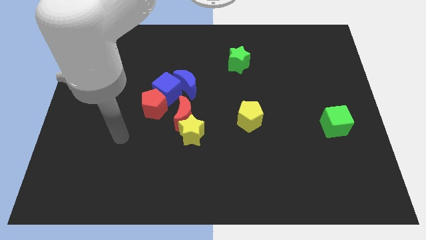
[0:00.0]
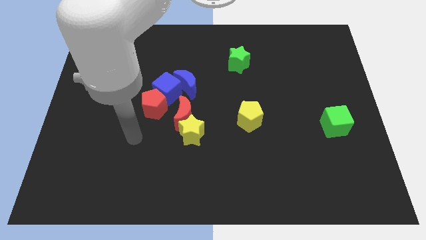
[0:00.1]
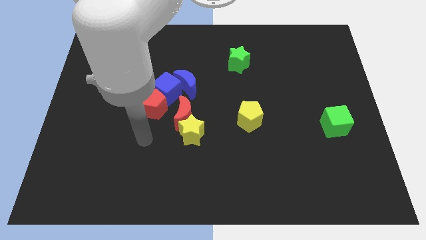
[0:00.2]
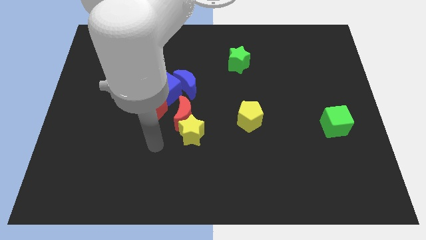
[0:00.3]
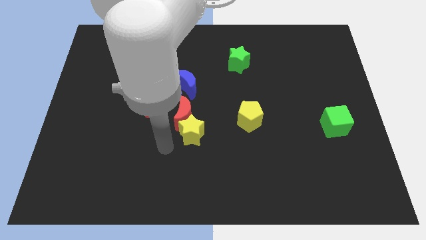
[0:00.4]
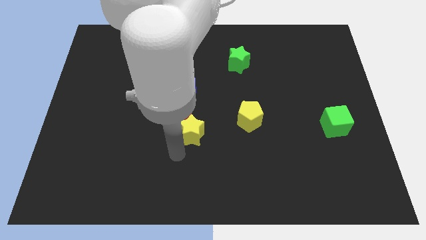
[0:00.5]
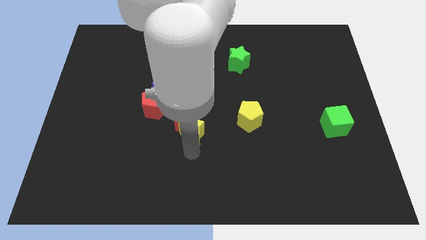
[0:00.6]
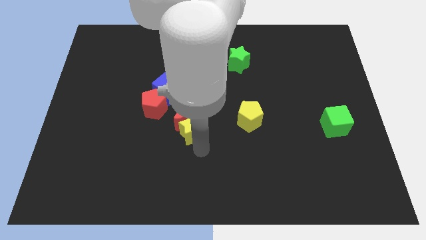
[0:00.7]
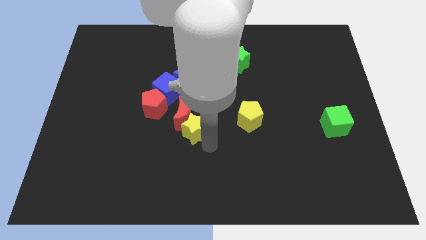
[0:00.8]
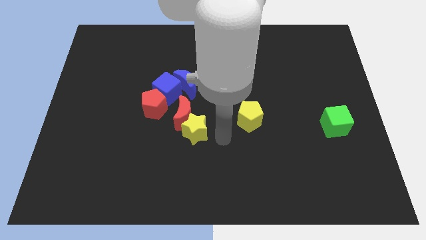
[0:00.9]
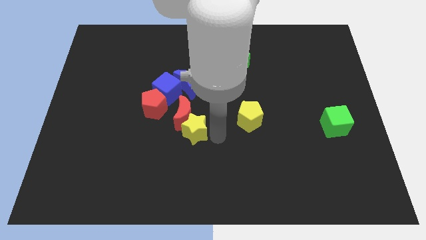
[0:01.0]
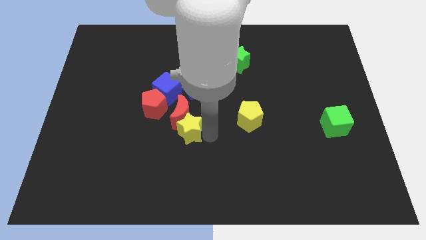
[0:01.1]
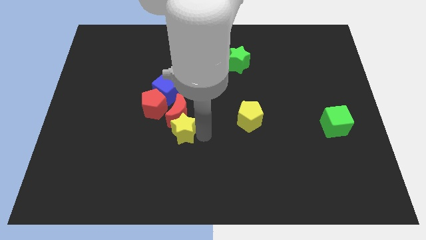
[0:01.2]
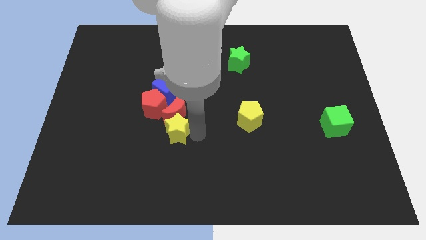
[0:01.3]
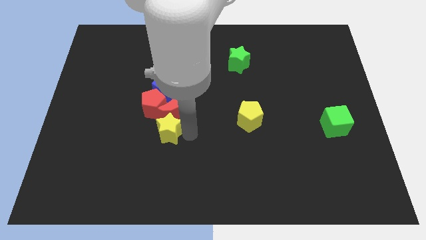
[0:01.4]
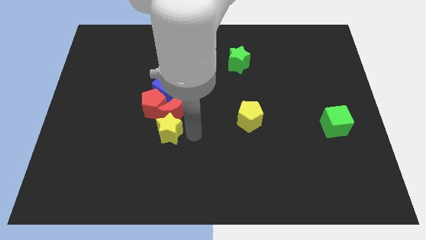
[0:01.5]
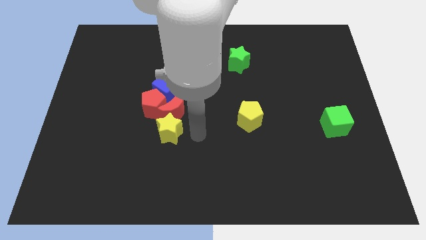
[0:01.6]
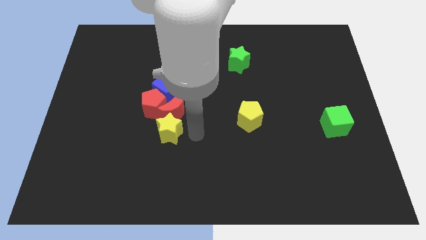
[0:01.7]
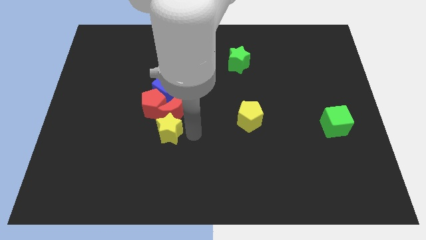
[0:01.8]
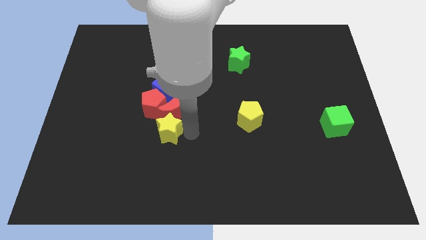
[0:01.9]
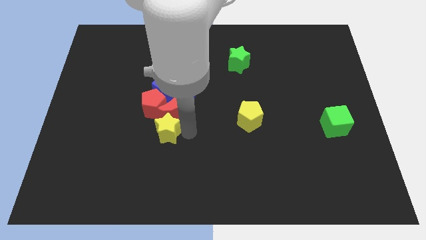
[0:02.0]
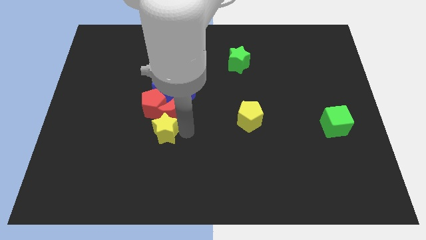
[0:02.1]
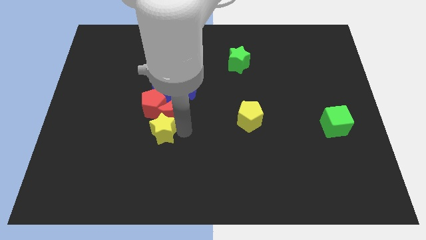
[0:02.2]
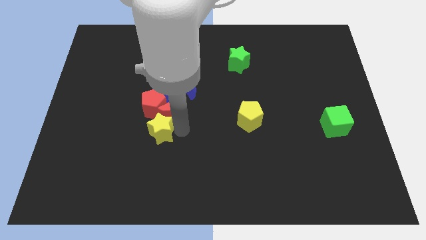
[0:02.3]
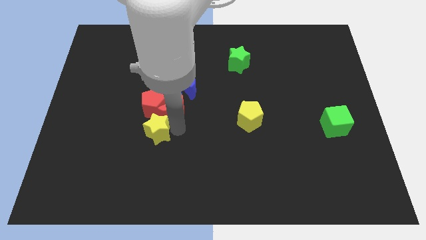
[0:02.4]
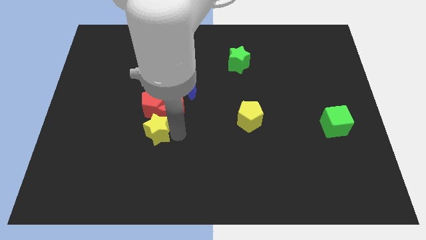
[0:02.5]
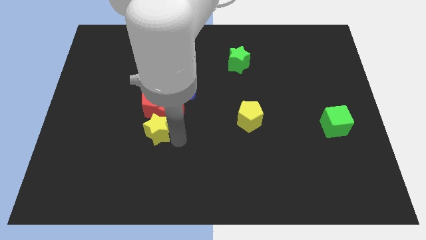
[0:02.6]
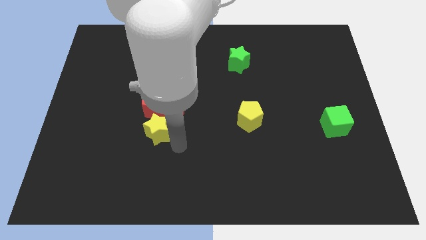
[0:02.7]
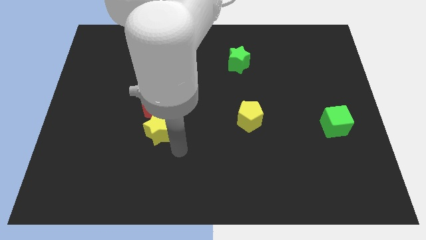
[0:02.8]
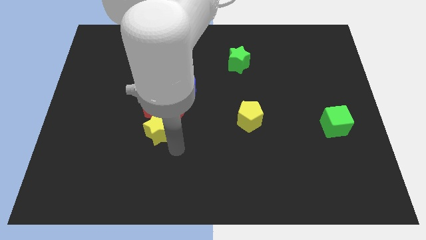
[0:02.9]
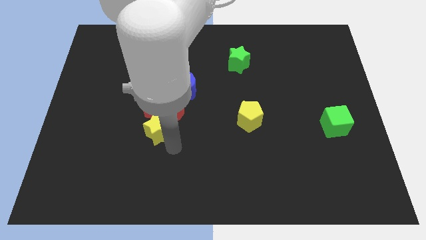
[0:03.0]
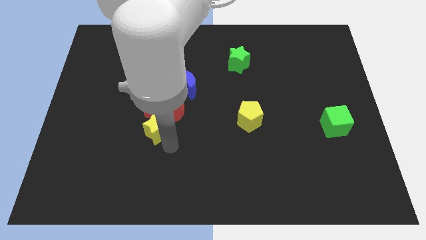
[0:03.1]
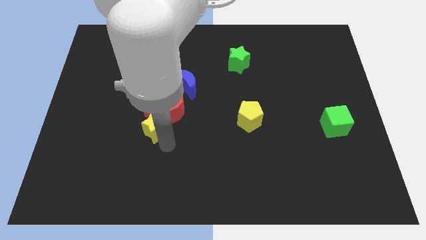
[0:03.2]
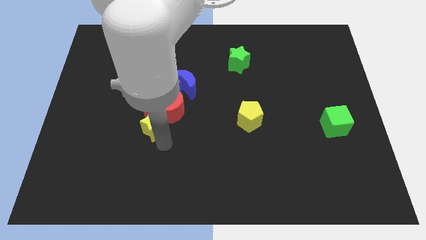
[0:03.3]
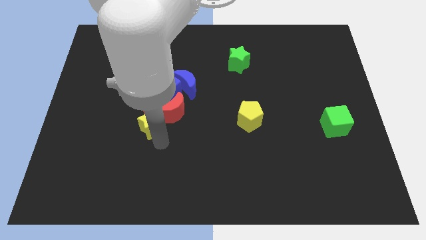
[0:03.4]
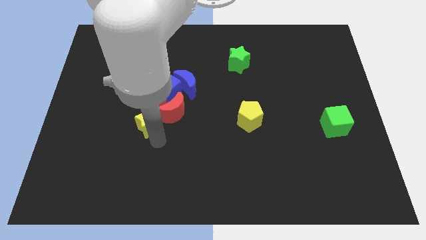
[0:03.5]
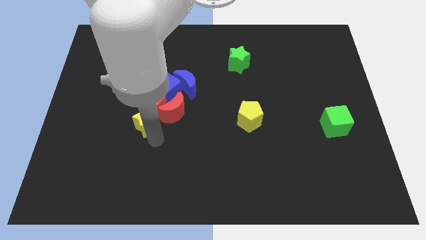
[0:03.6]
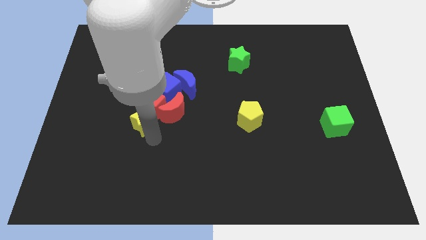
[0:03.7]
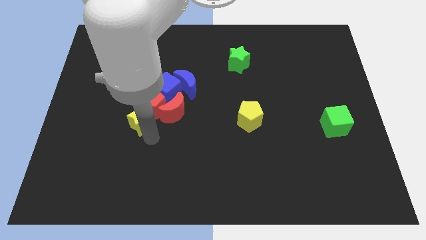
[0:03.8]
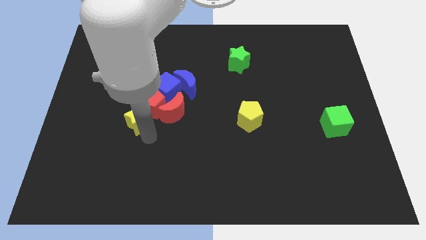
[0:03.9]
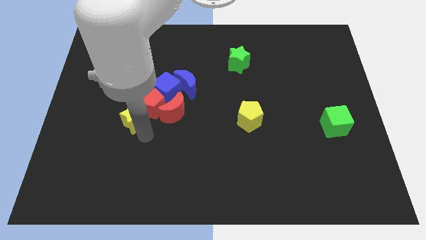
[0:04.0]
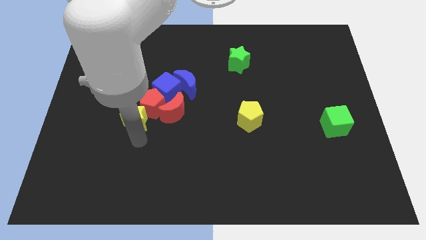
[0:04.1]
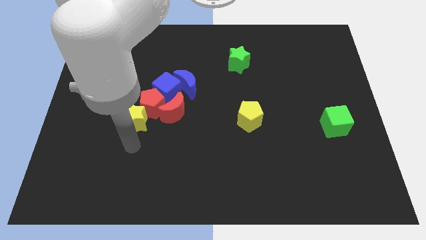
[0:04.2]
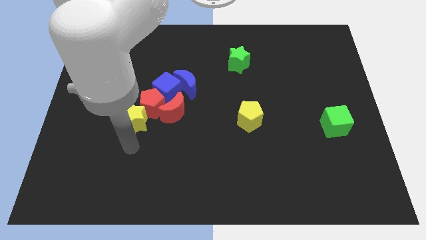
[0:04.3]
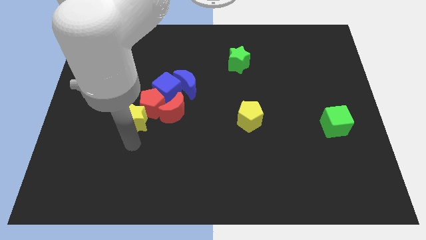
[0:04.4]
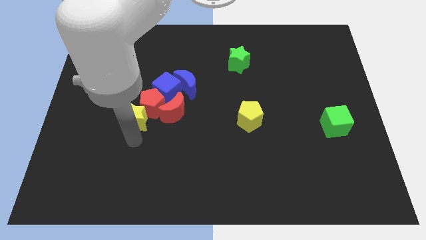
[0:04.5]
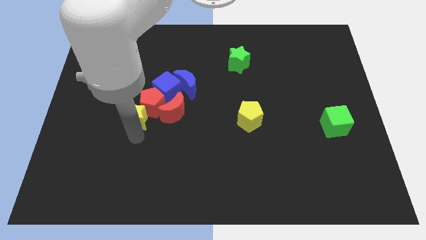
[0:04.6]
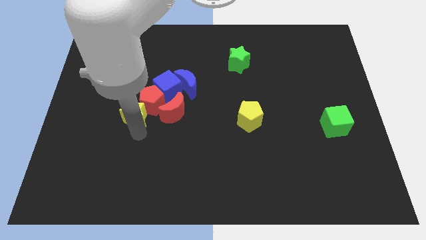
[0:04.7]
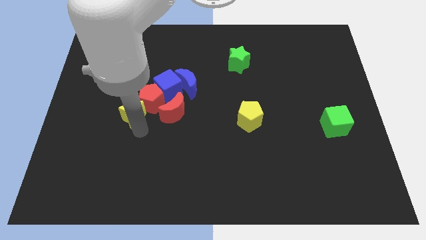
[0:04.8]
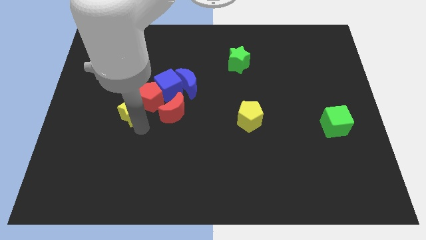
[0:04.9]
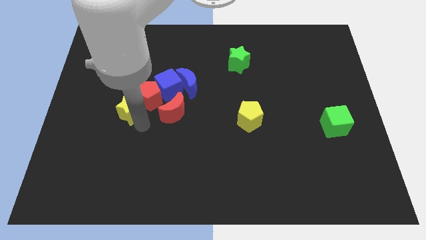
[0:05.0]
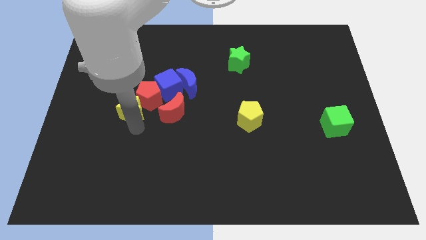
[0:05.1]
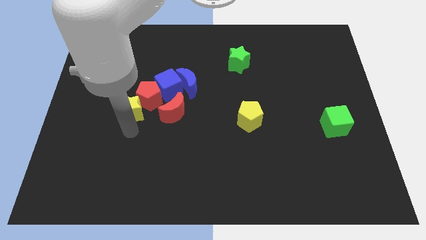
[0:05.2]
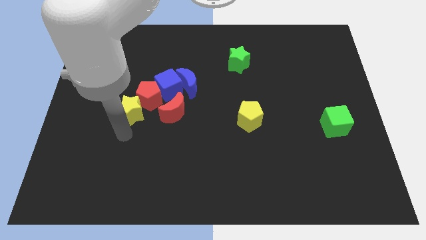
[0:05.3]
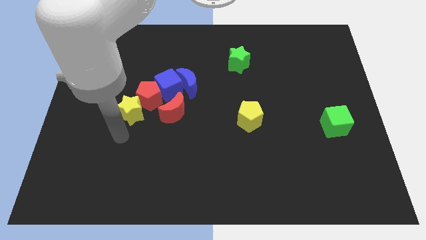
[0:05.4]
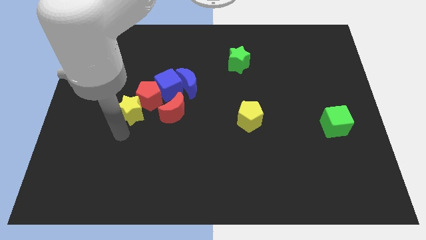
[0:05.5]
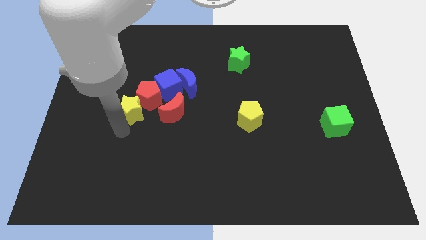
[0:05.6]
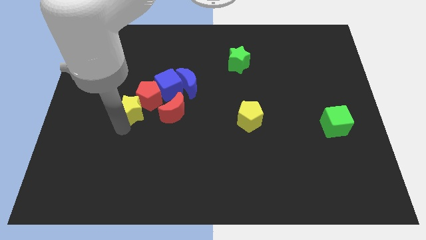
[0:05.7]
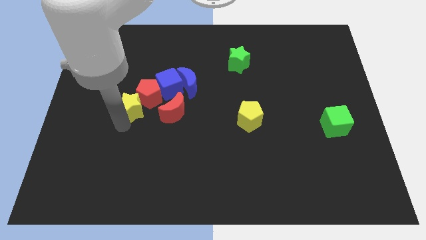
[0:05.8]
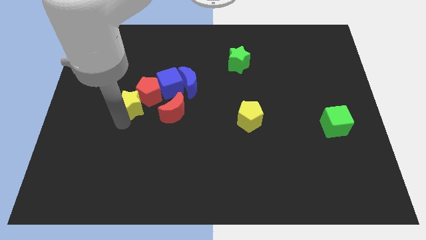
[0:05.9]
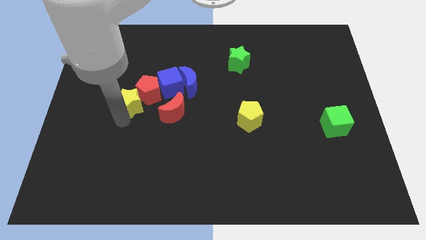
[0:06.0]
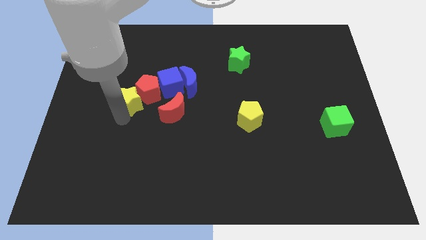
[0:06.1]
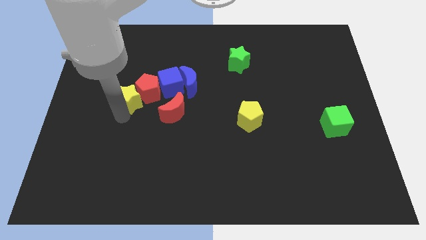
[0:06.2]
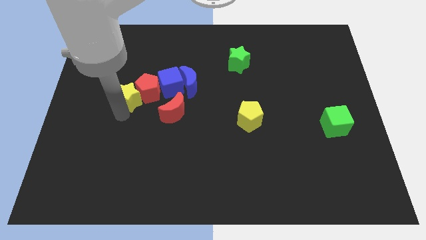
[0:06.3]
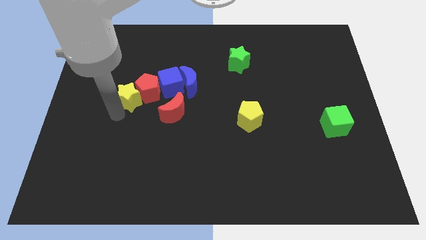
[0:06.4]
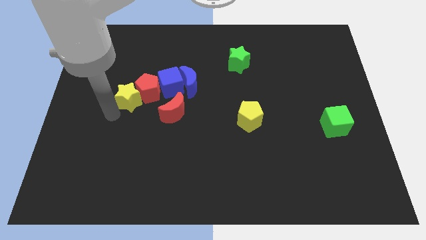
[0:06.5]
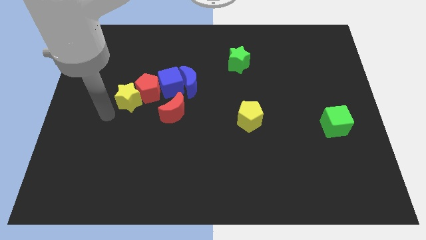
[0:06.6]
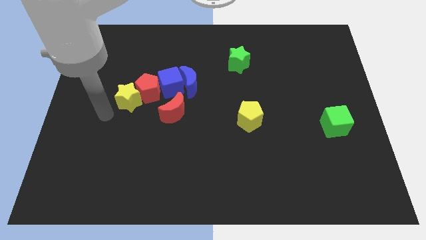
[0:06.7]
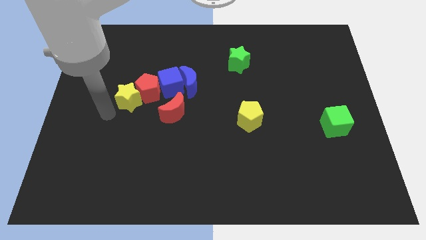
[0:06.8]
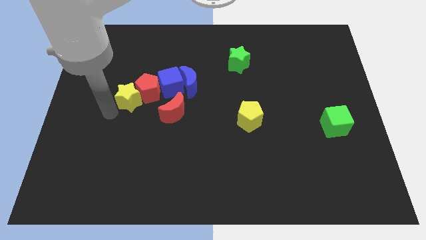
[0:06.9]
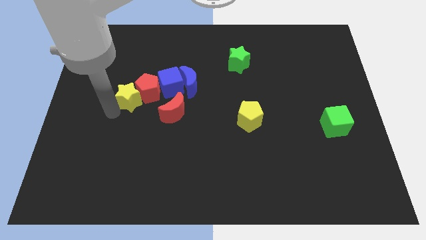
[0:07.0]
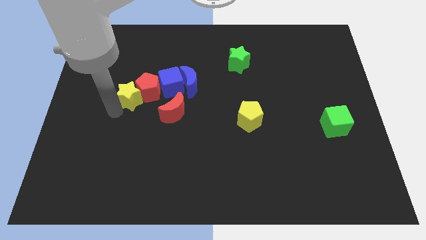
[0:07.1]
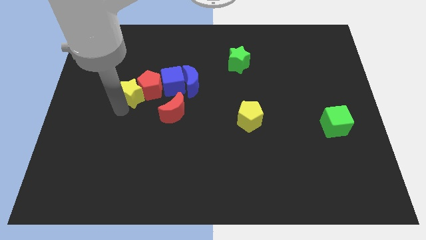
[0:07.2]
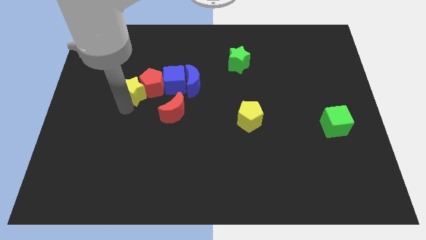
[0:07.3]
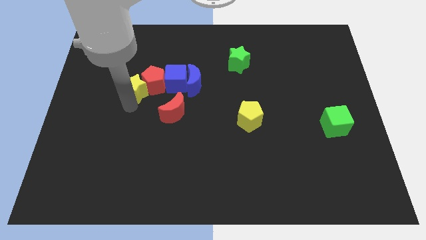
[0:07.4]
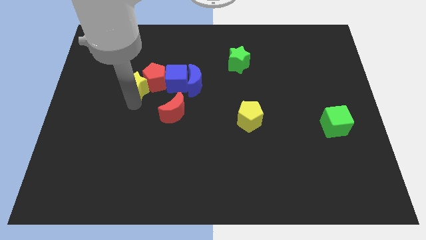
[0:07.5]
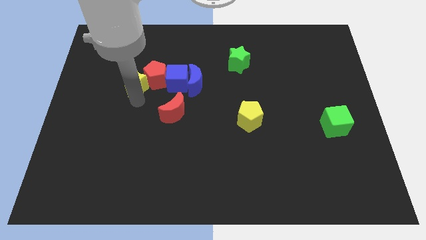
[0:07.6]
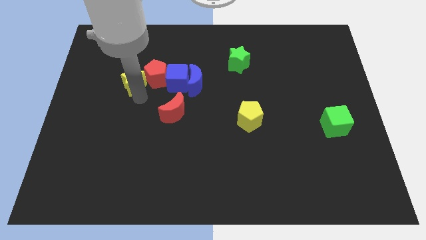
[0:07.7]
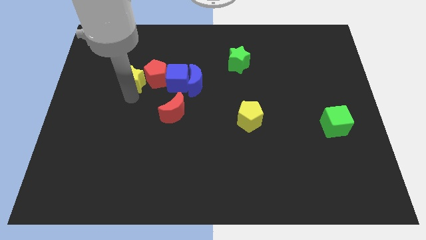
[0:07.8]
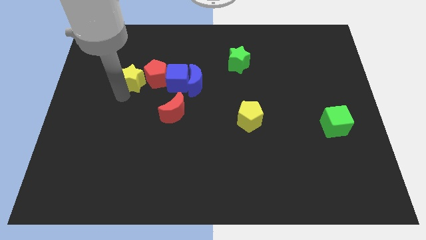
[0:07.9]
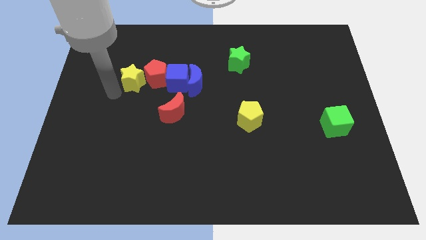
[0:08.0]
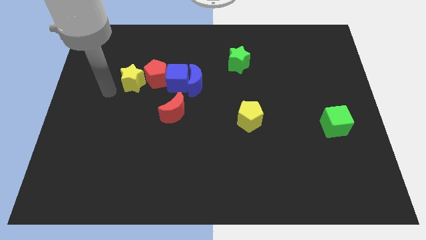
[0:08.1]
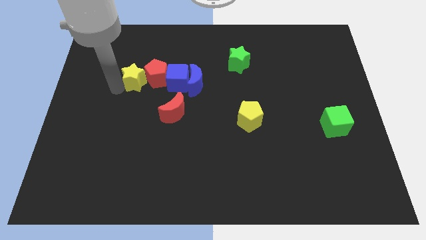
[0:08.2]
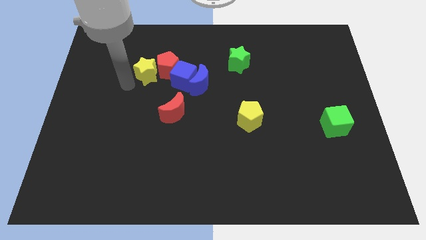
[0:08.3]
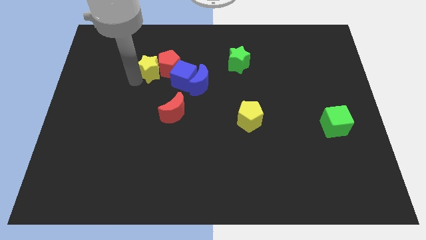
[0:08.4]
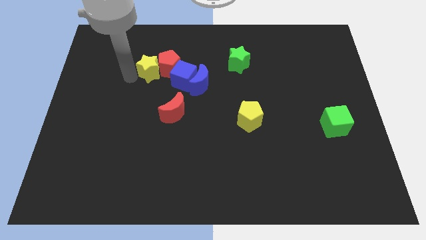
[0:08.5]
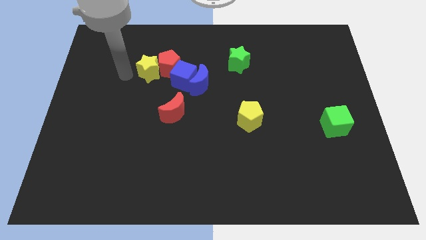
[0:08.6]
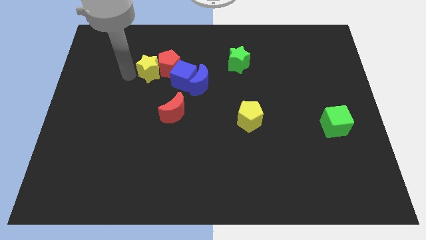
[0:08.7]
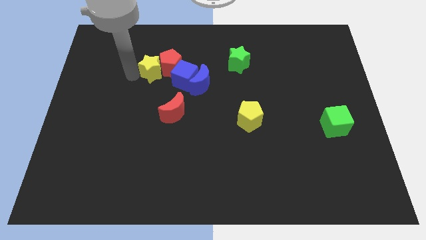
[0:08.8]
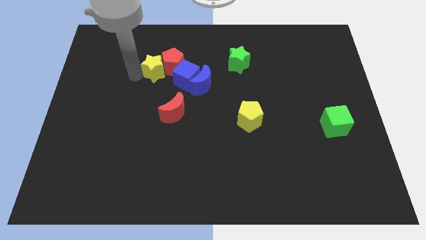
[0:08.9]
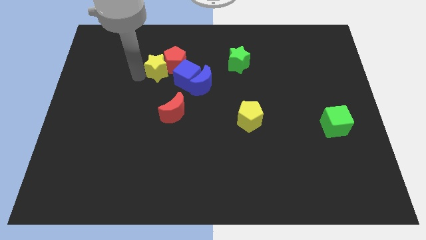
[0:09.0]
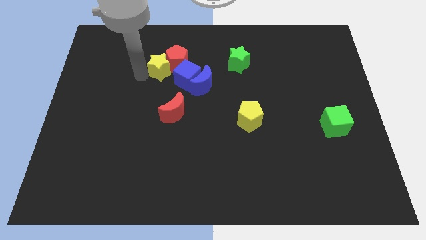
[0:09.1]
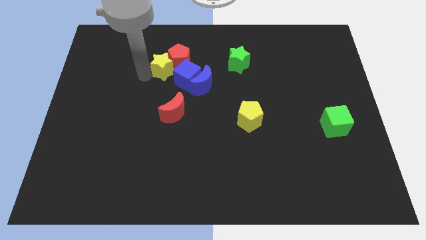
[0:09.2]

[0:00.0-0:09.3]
put the yellow star diagonally up and to the left of the blue moon
